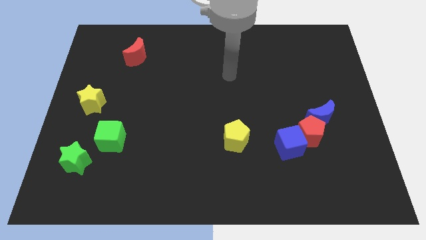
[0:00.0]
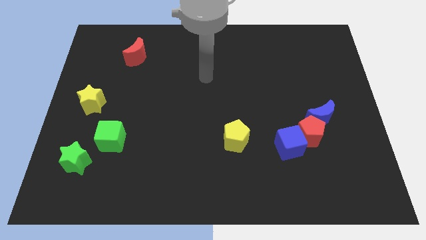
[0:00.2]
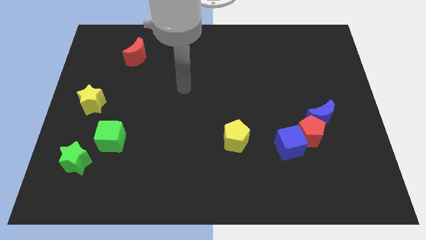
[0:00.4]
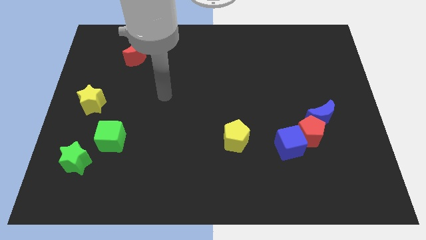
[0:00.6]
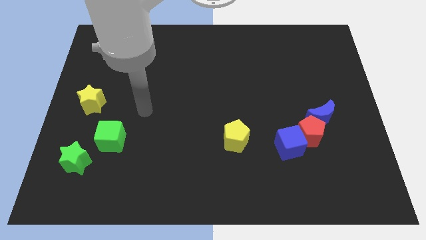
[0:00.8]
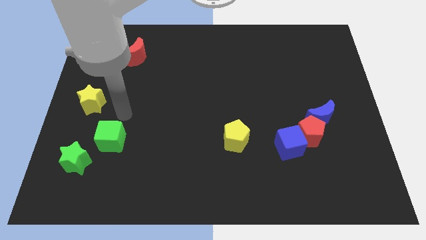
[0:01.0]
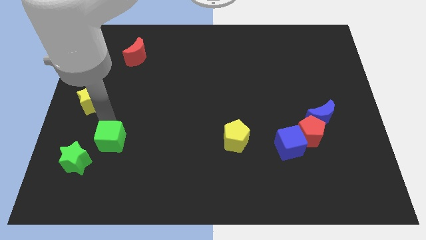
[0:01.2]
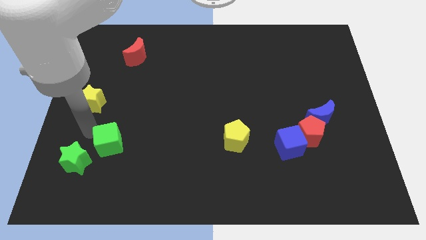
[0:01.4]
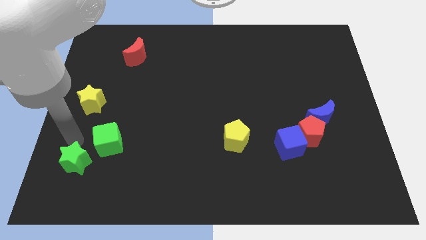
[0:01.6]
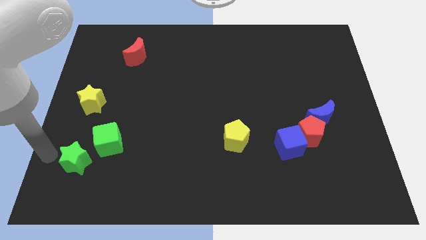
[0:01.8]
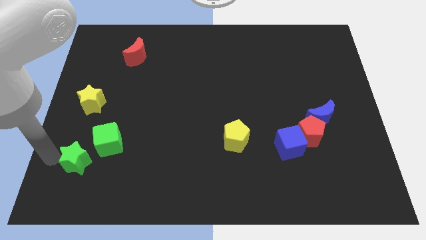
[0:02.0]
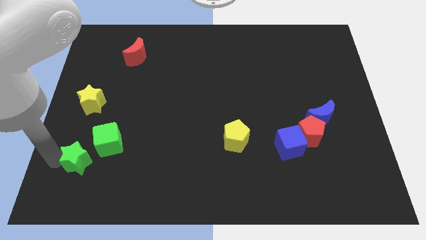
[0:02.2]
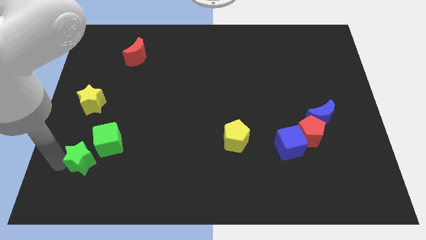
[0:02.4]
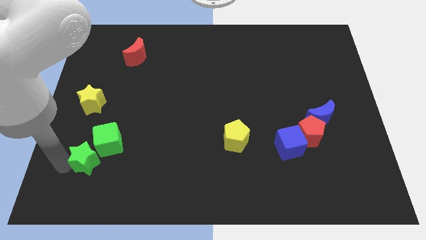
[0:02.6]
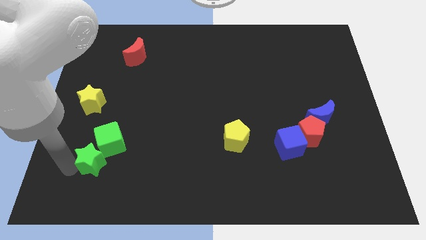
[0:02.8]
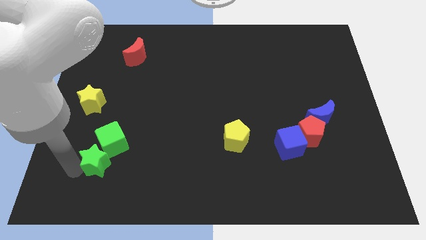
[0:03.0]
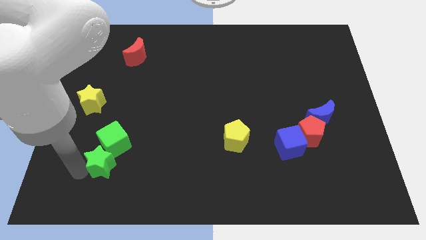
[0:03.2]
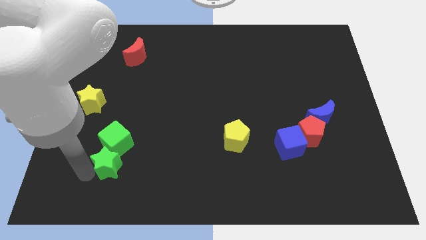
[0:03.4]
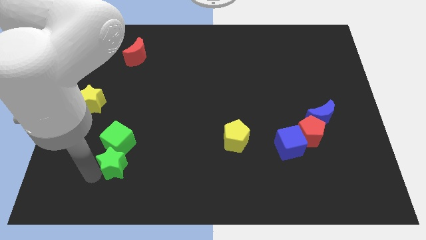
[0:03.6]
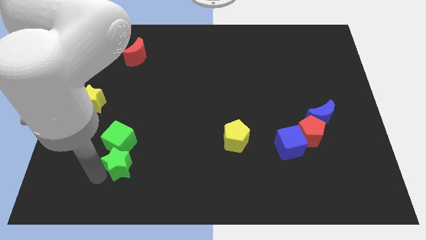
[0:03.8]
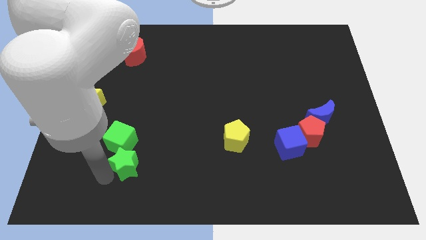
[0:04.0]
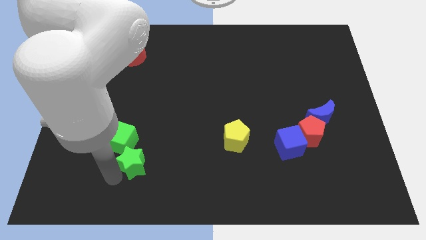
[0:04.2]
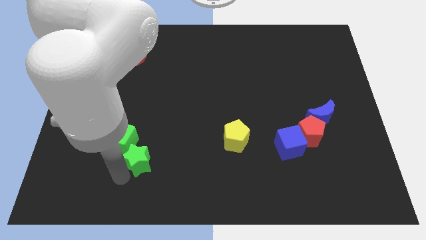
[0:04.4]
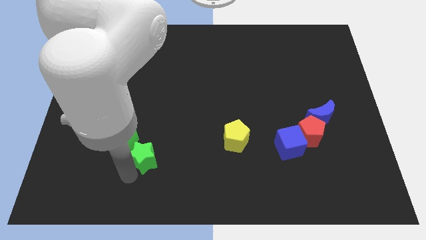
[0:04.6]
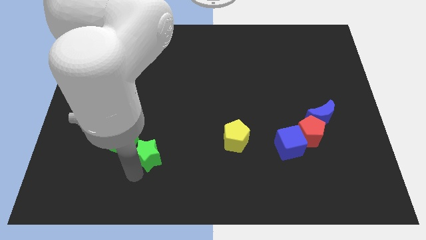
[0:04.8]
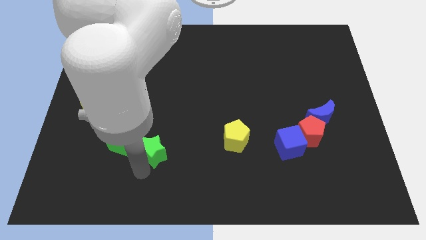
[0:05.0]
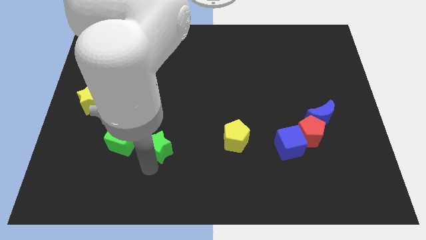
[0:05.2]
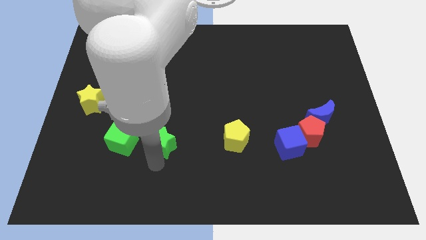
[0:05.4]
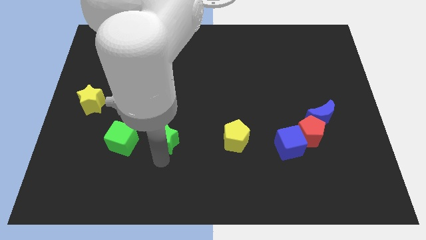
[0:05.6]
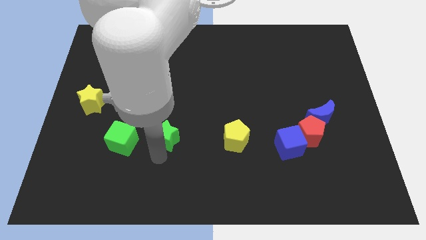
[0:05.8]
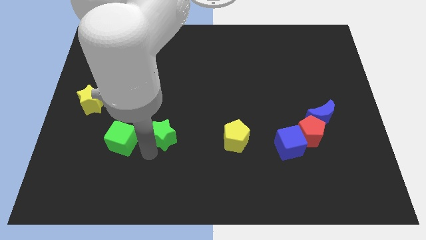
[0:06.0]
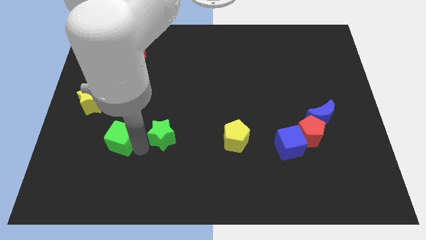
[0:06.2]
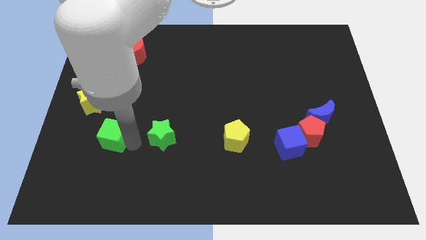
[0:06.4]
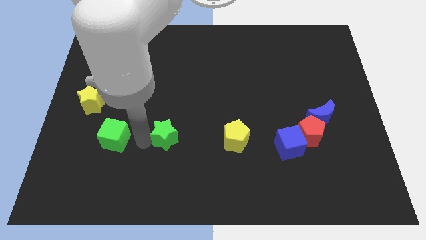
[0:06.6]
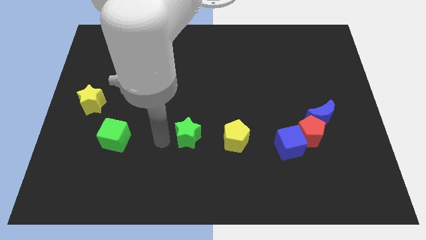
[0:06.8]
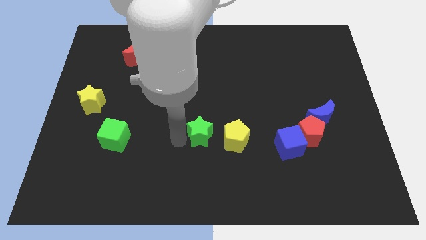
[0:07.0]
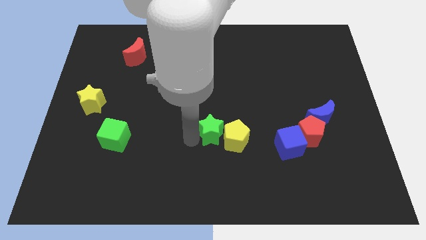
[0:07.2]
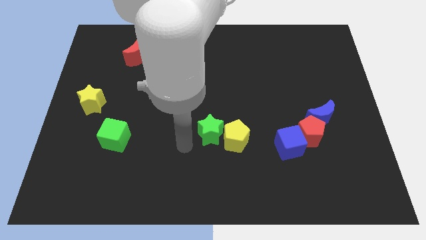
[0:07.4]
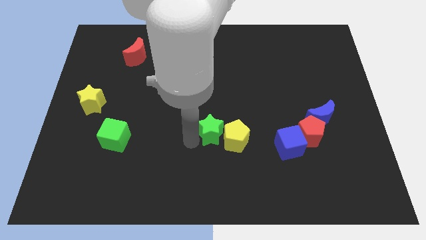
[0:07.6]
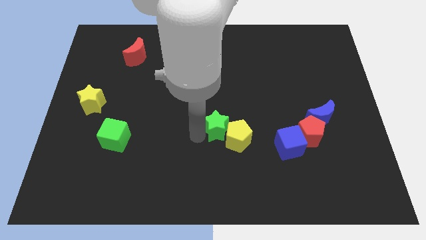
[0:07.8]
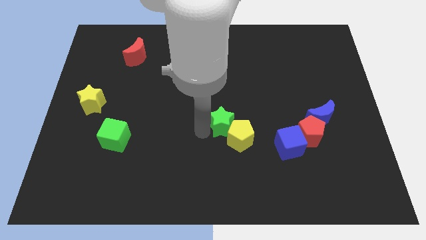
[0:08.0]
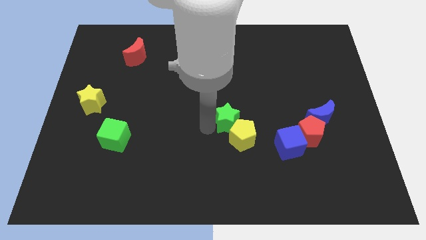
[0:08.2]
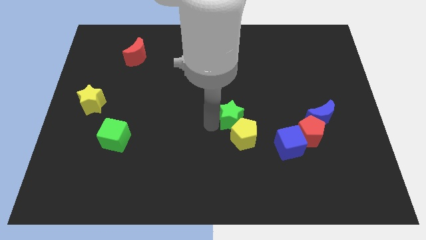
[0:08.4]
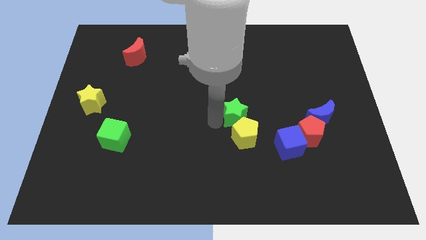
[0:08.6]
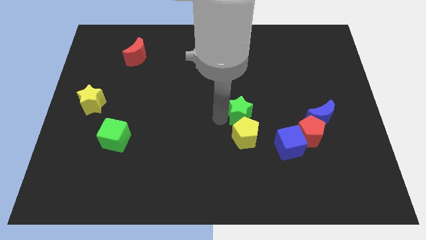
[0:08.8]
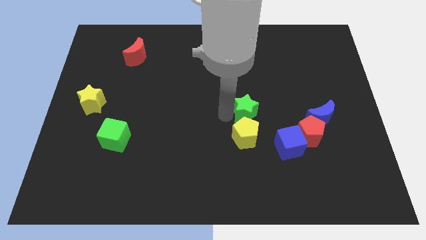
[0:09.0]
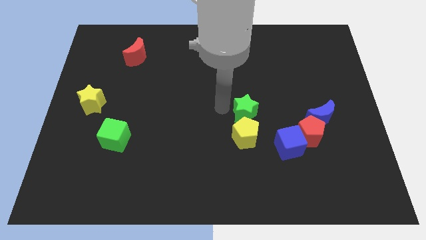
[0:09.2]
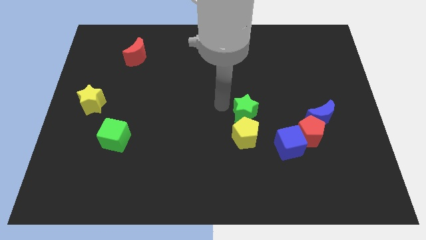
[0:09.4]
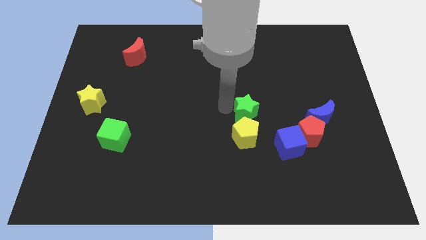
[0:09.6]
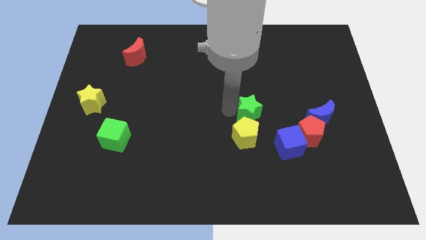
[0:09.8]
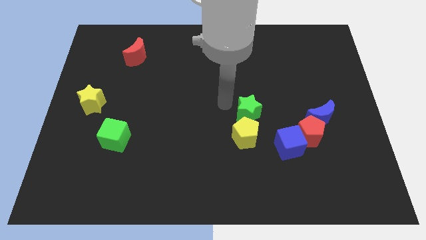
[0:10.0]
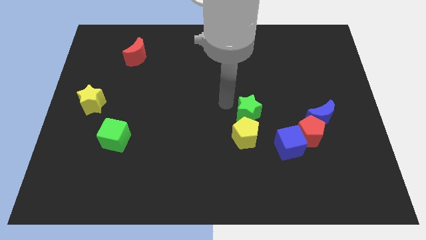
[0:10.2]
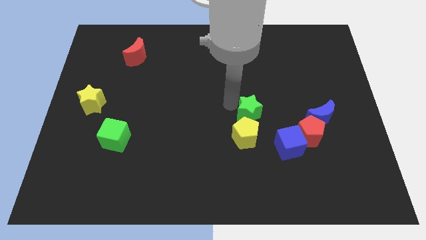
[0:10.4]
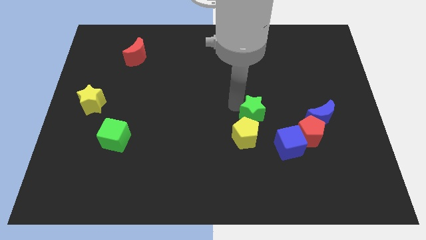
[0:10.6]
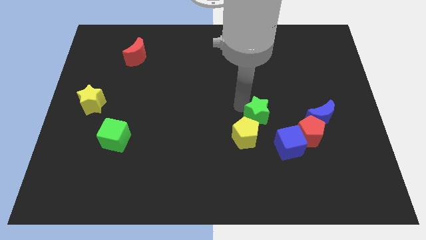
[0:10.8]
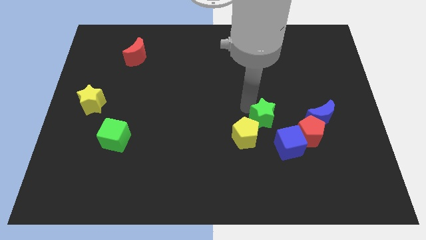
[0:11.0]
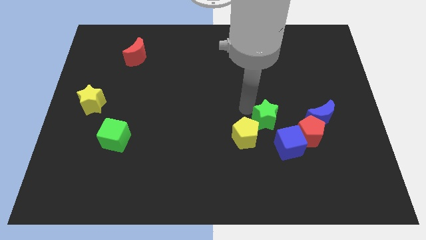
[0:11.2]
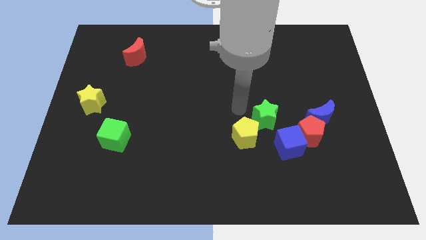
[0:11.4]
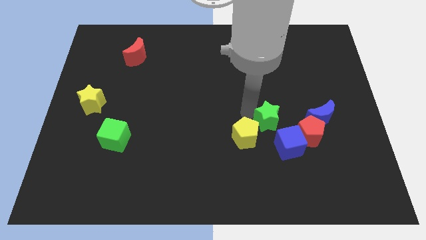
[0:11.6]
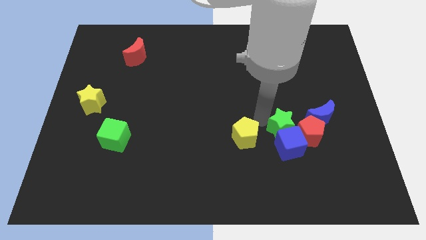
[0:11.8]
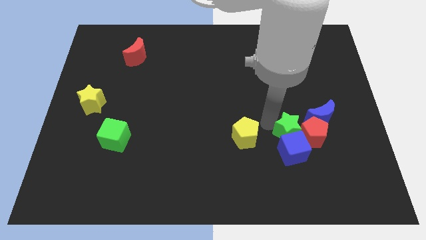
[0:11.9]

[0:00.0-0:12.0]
push the green star towards the red pentagon

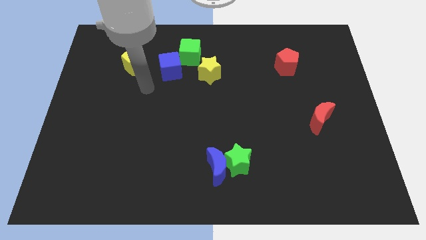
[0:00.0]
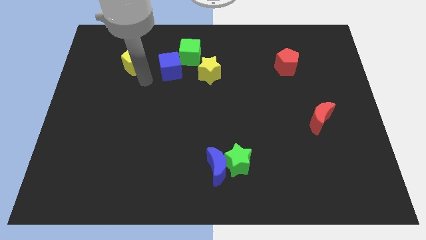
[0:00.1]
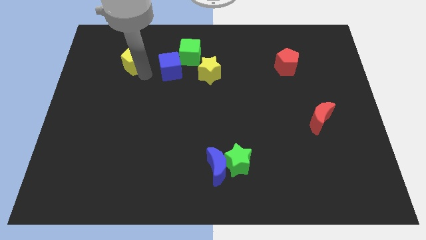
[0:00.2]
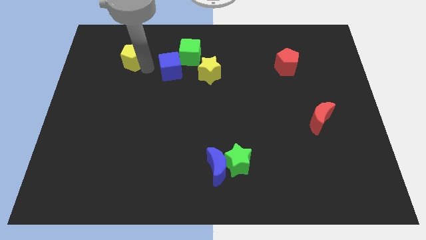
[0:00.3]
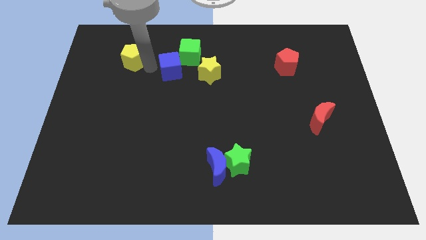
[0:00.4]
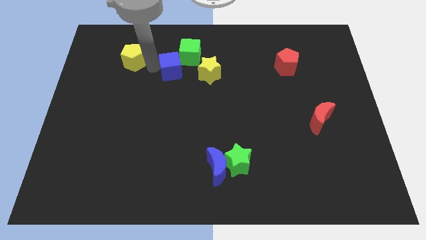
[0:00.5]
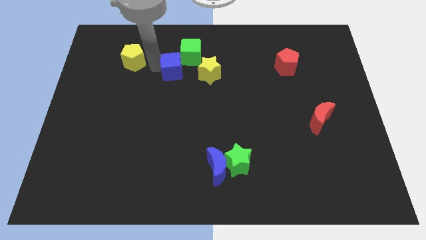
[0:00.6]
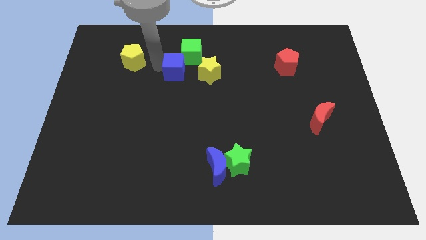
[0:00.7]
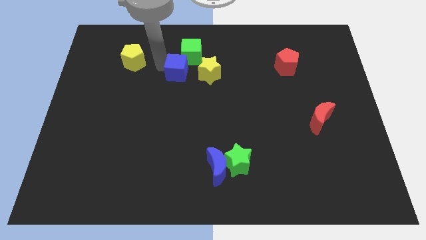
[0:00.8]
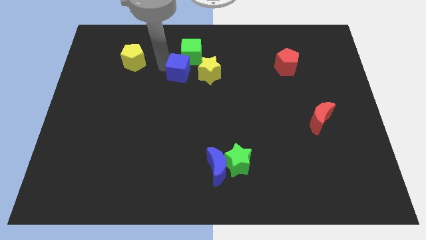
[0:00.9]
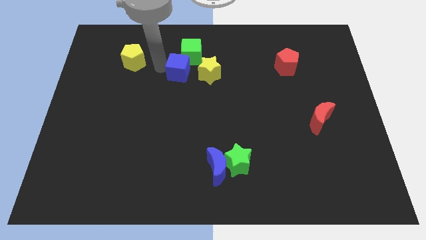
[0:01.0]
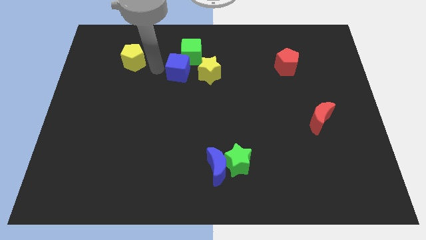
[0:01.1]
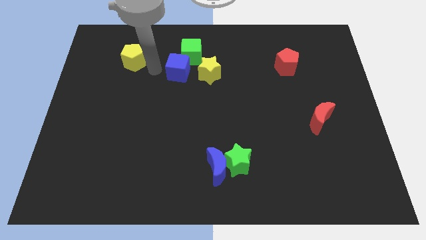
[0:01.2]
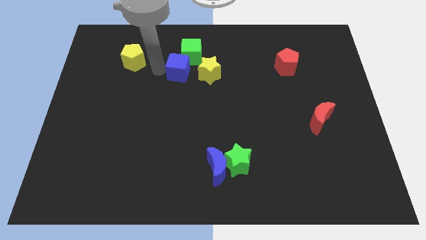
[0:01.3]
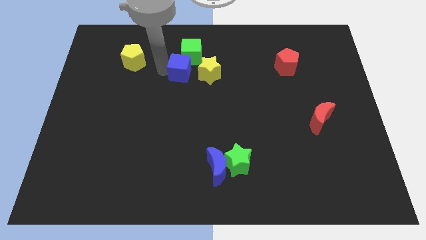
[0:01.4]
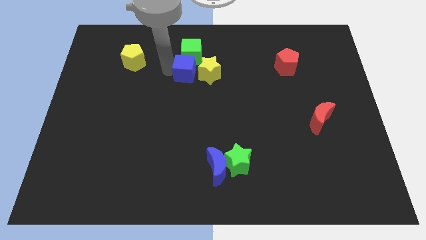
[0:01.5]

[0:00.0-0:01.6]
put the blue cube next to the yellow star
